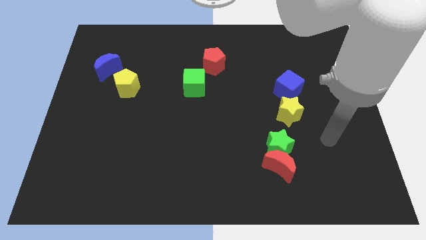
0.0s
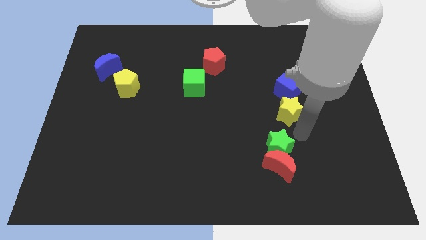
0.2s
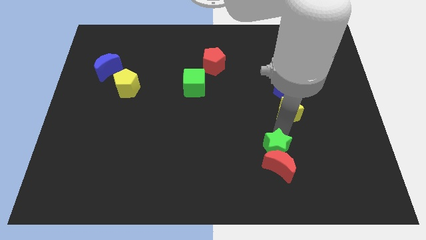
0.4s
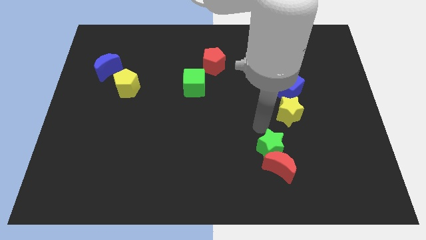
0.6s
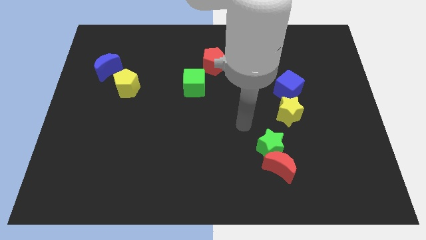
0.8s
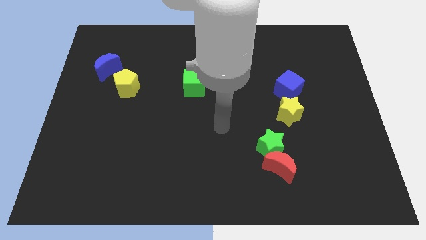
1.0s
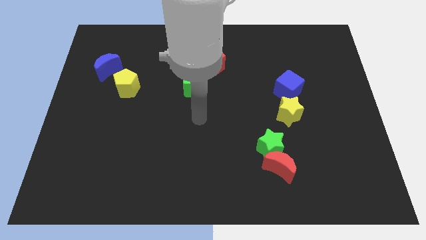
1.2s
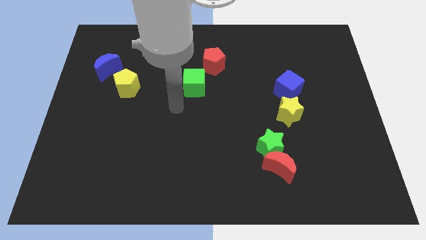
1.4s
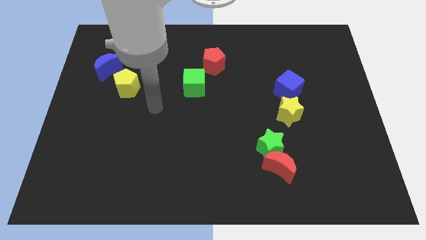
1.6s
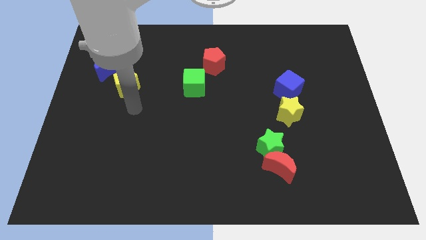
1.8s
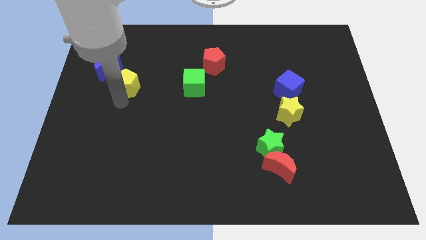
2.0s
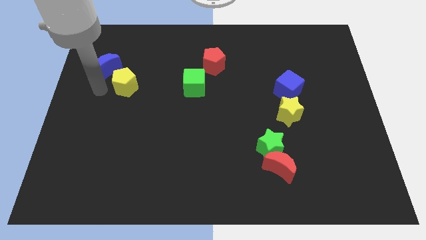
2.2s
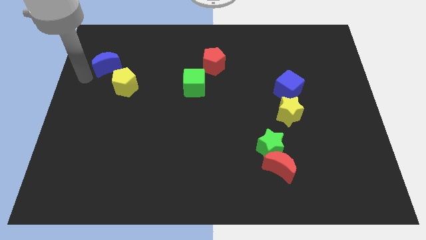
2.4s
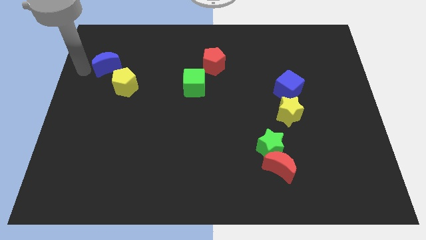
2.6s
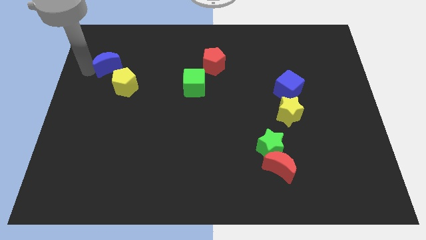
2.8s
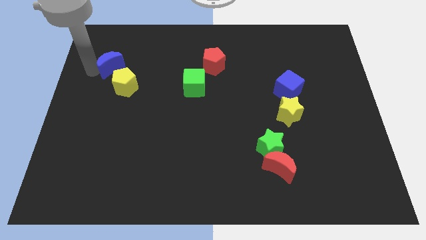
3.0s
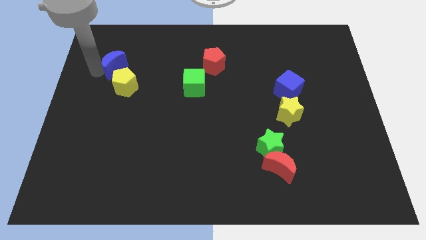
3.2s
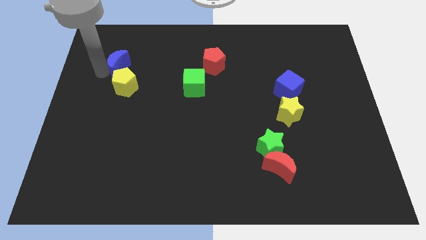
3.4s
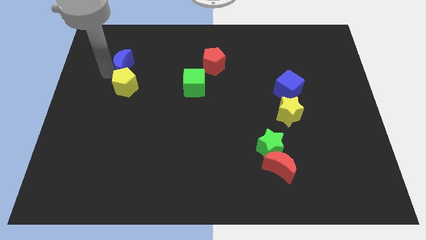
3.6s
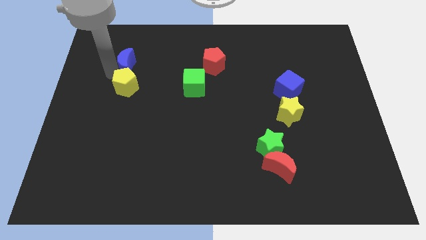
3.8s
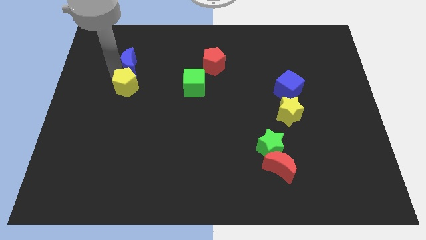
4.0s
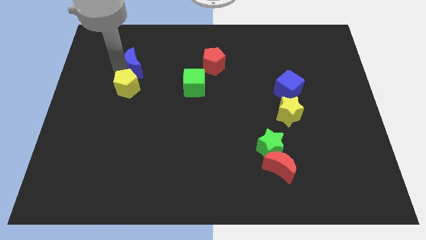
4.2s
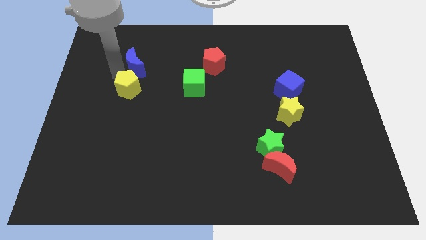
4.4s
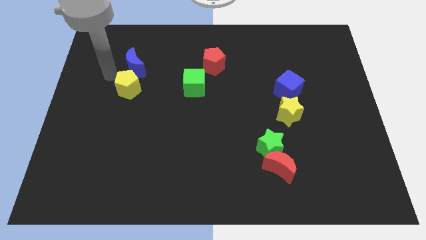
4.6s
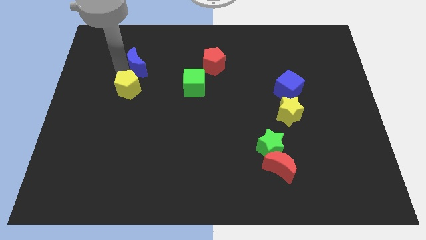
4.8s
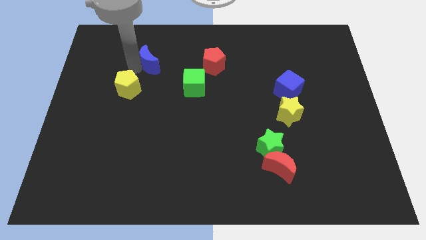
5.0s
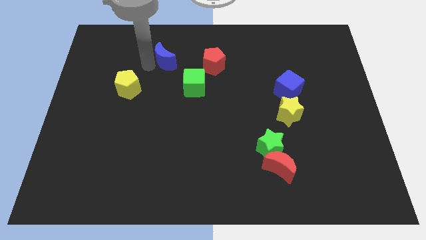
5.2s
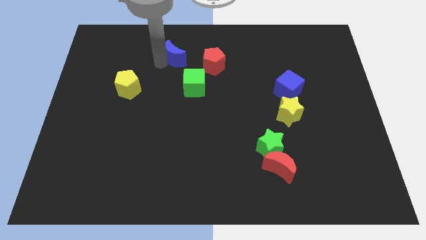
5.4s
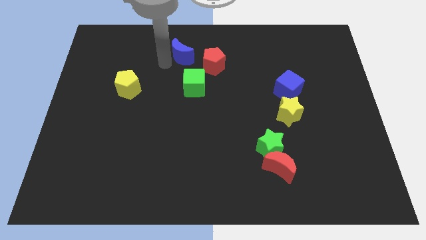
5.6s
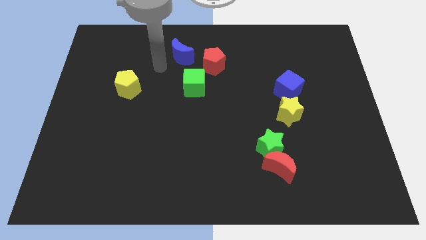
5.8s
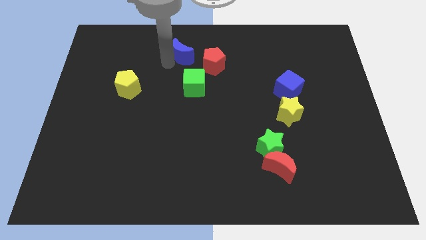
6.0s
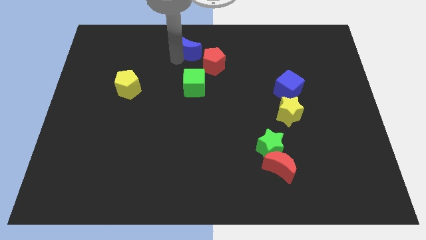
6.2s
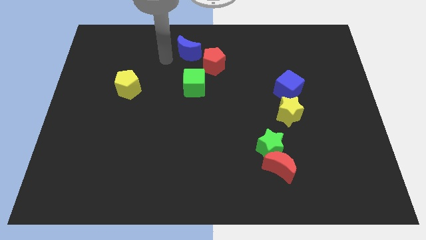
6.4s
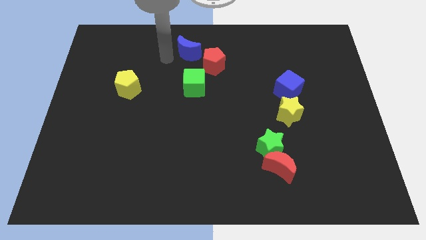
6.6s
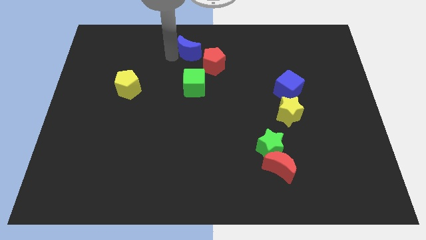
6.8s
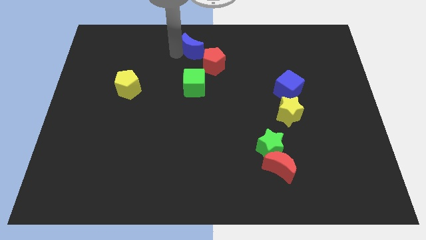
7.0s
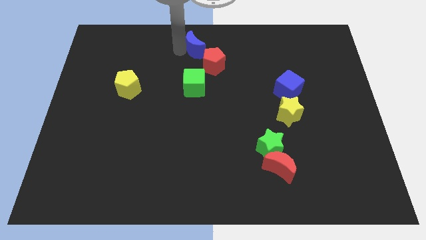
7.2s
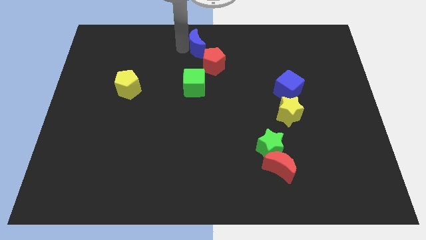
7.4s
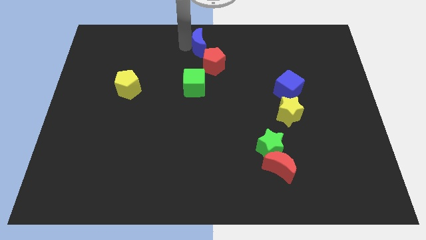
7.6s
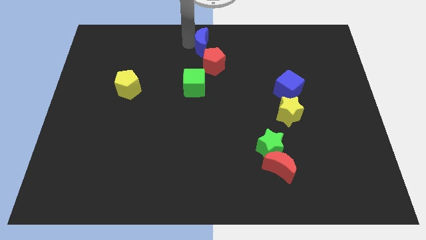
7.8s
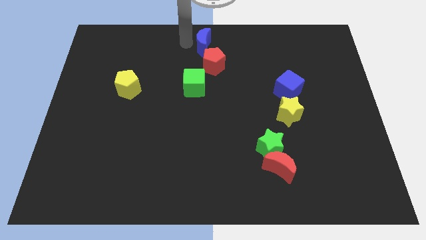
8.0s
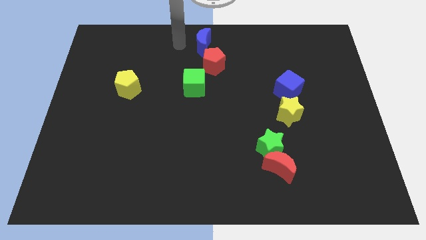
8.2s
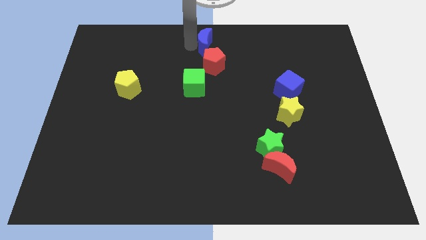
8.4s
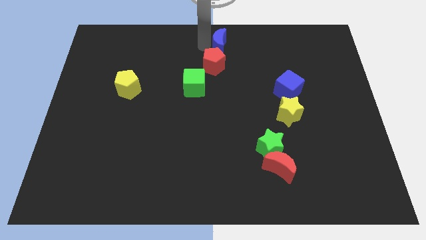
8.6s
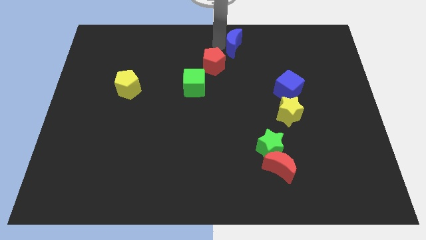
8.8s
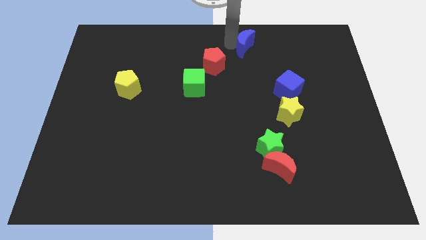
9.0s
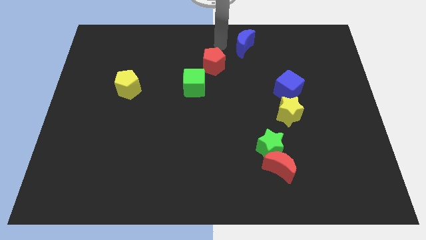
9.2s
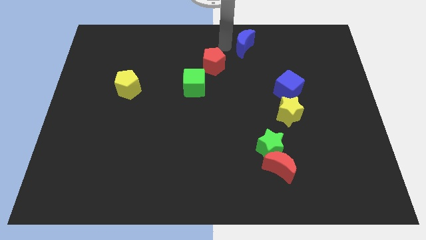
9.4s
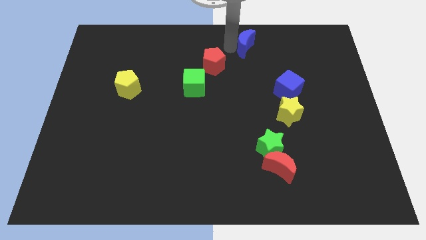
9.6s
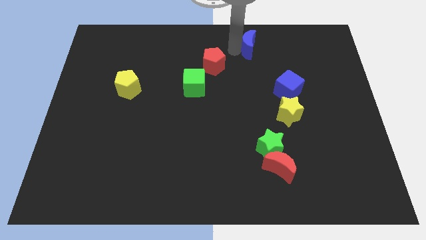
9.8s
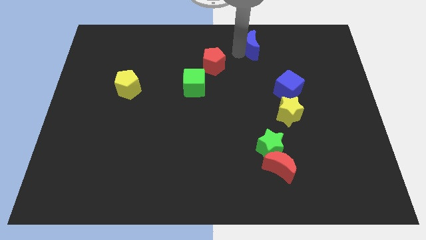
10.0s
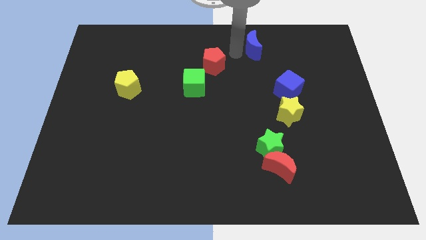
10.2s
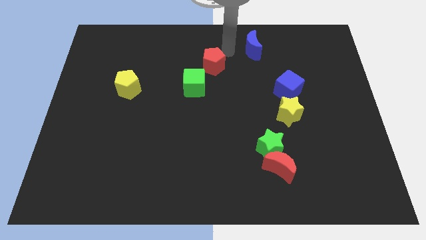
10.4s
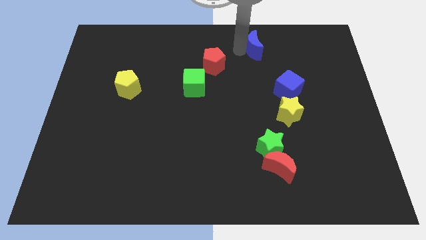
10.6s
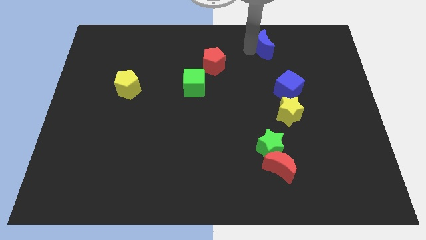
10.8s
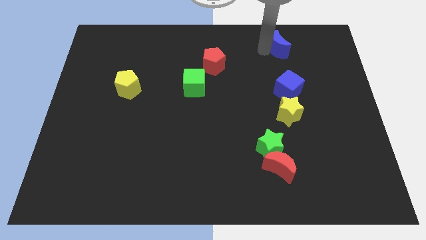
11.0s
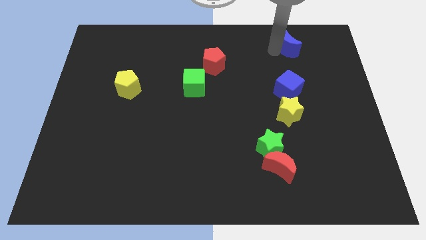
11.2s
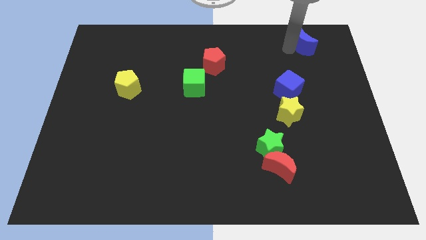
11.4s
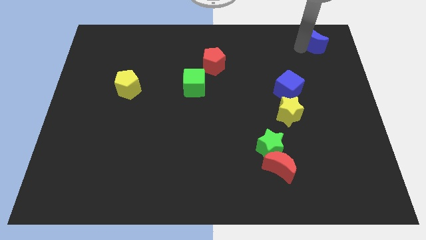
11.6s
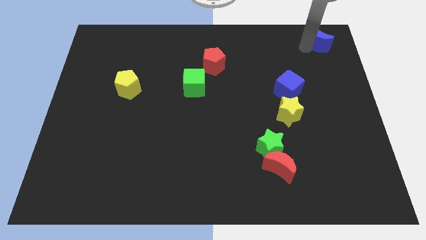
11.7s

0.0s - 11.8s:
move the blue moon to the top right
